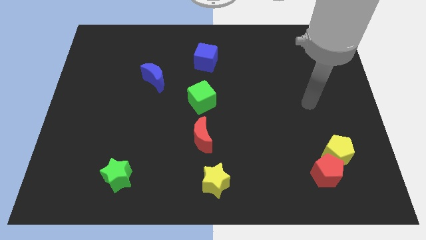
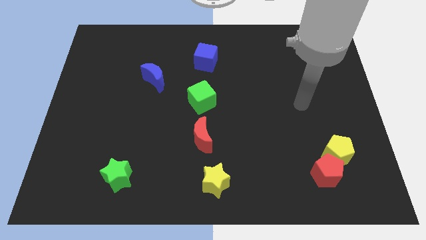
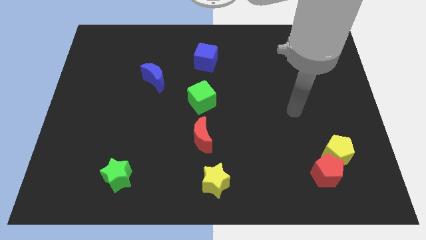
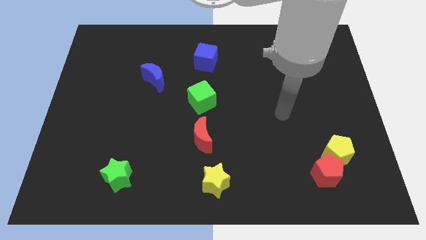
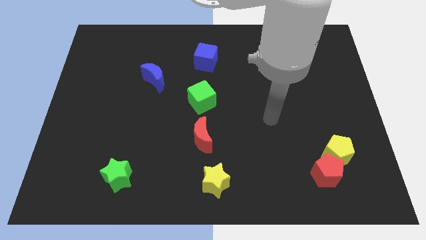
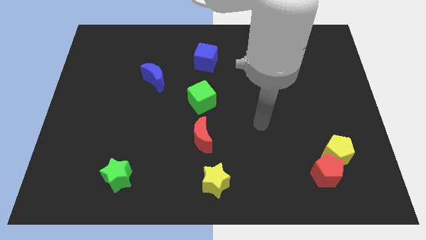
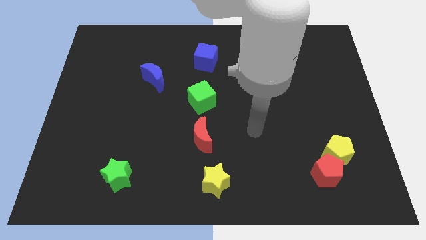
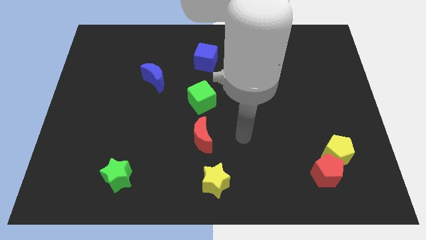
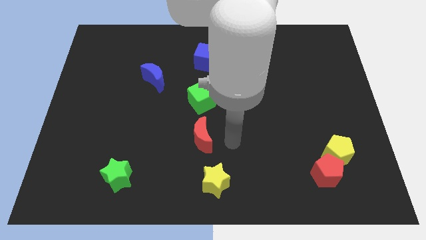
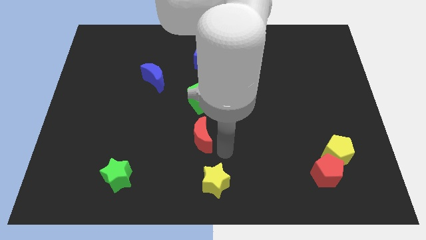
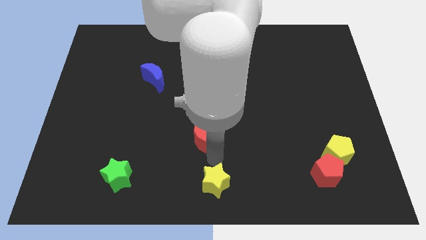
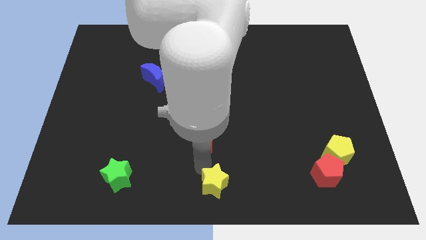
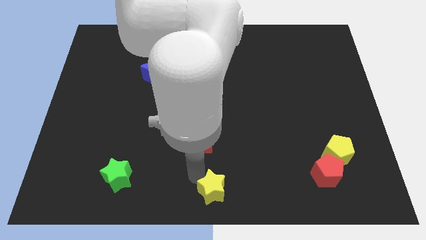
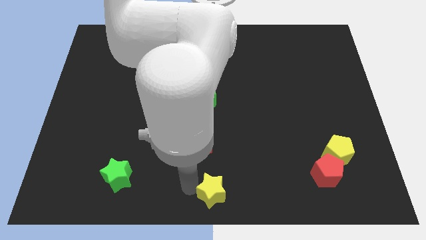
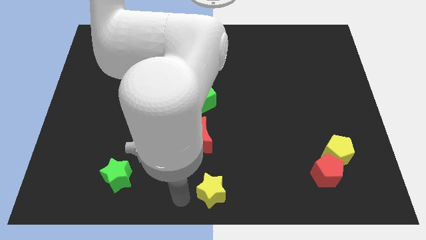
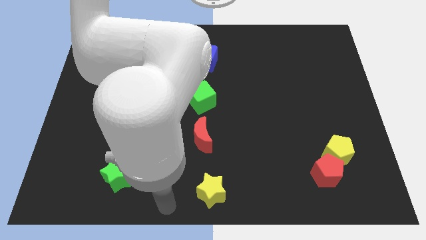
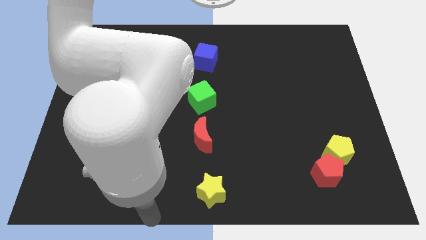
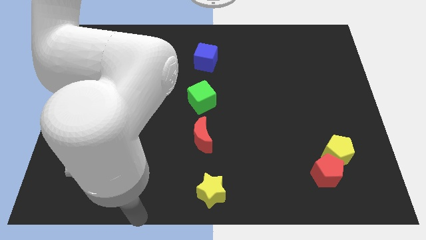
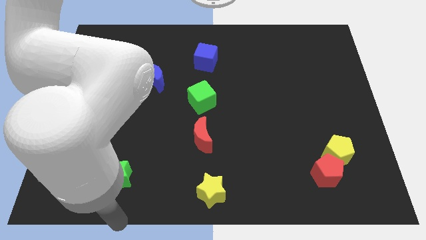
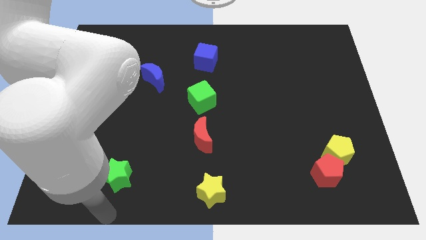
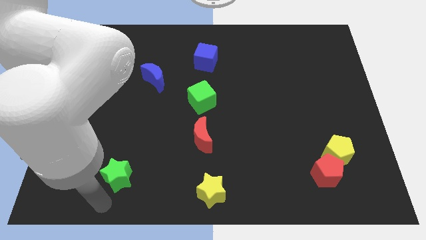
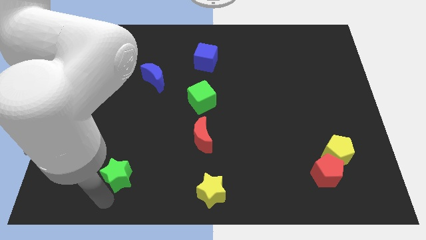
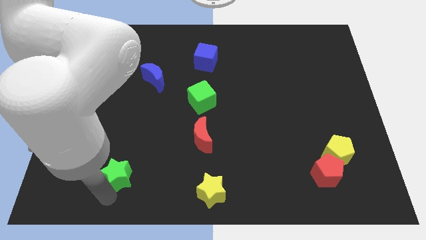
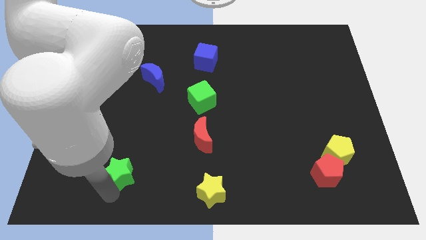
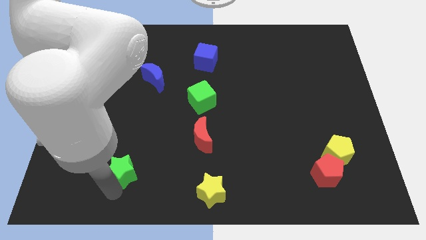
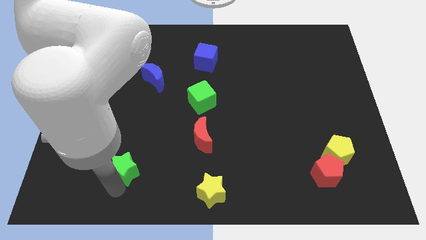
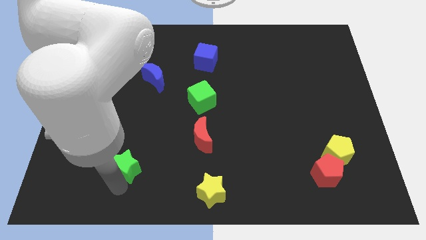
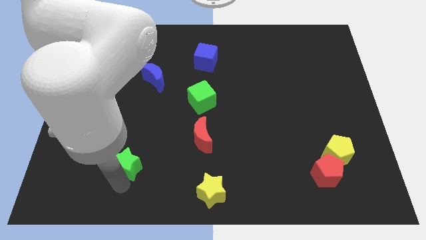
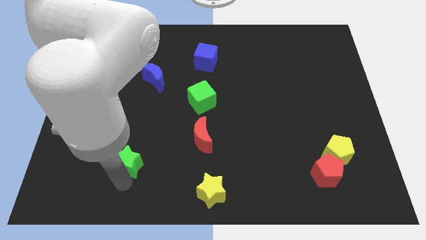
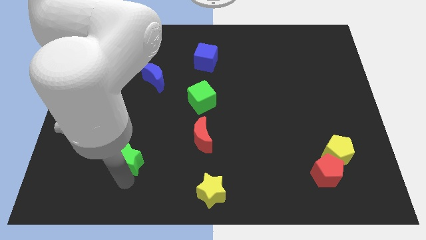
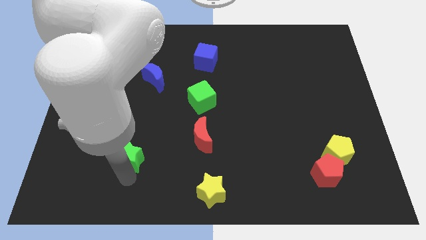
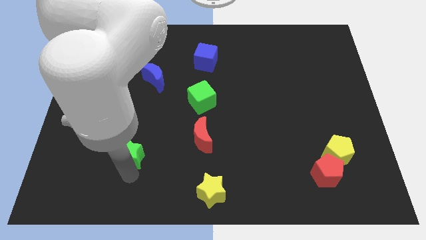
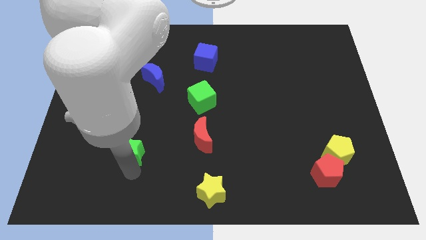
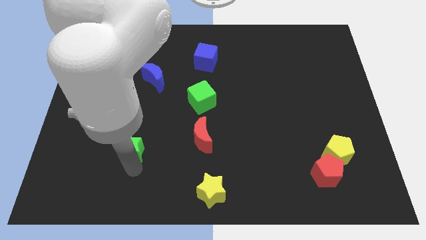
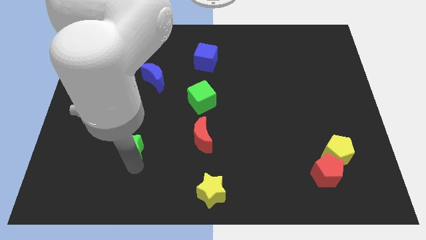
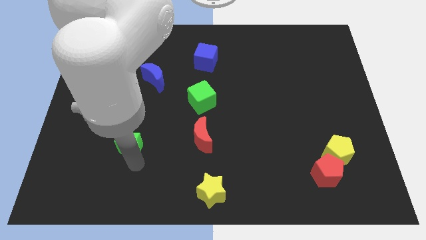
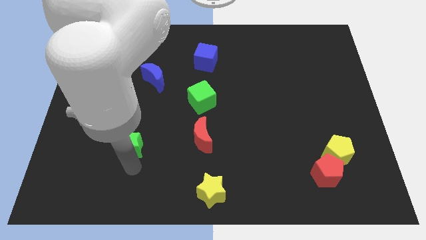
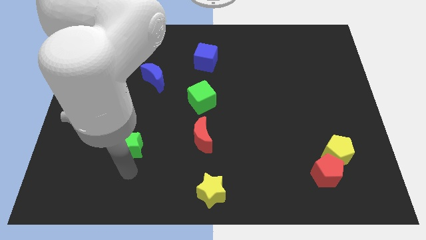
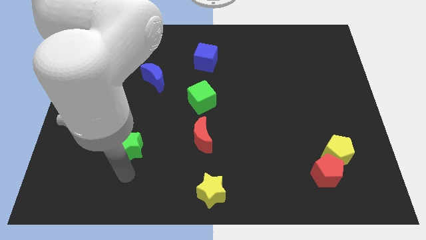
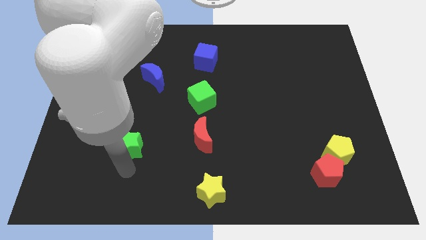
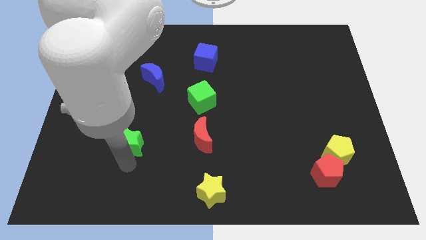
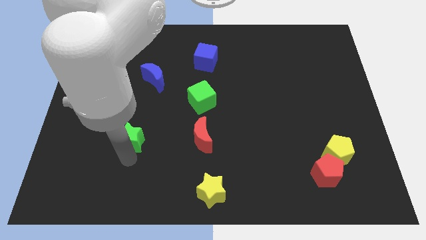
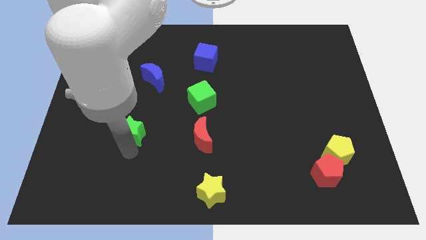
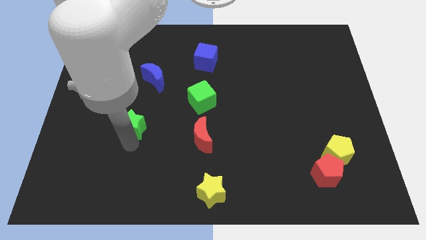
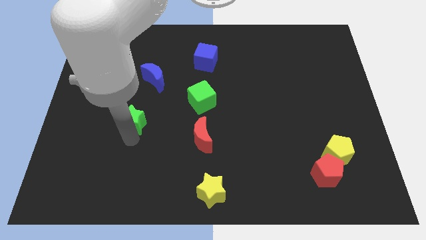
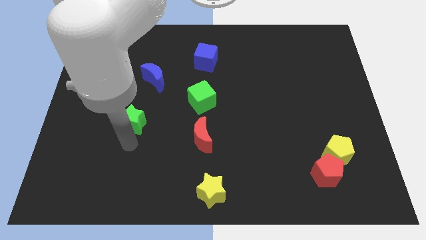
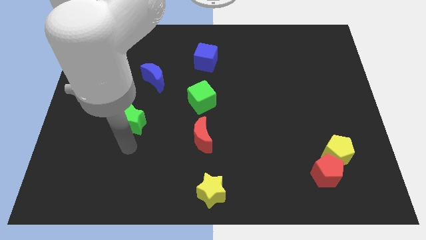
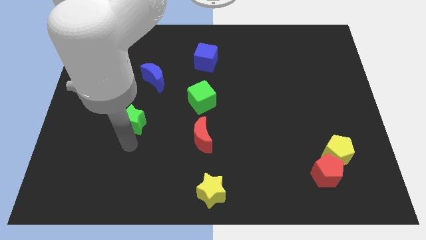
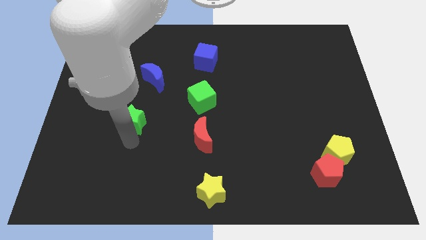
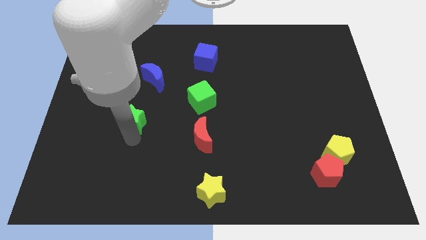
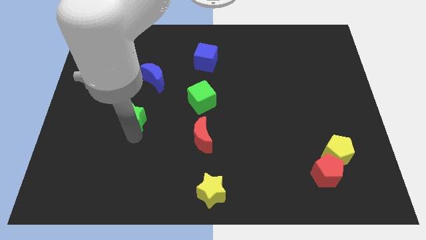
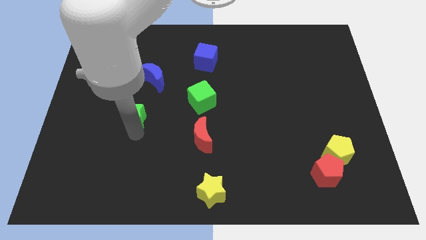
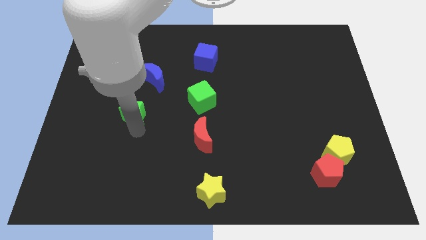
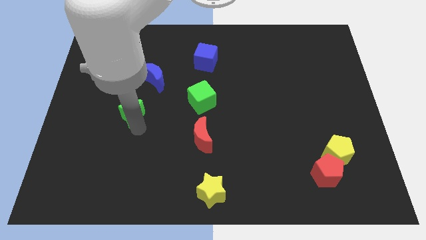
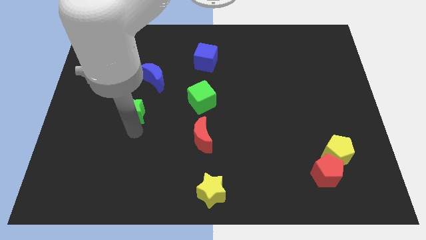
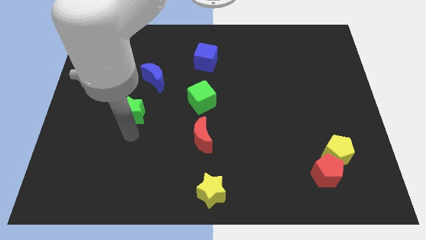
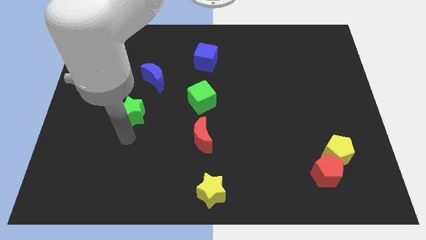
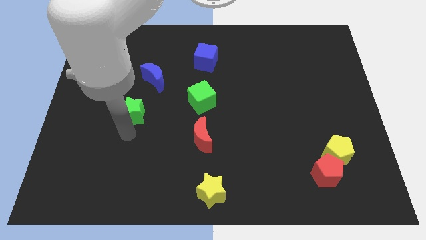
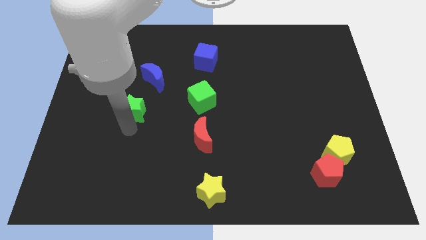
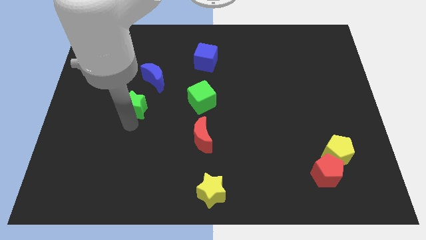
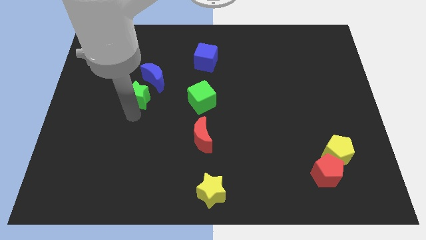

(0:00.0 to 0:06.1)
push the green star up

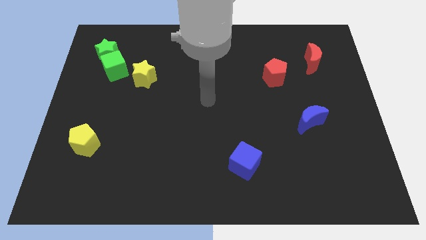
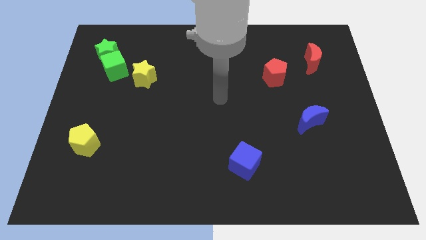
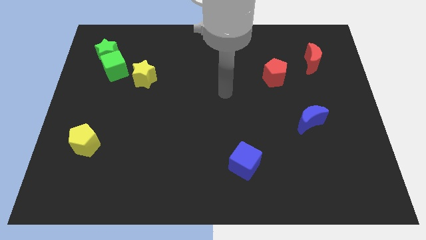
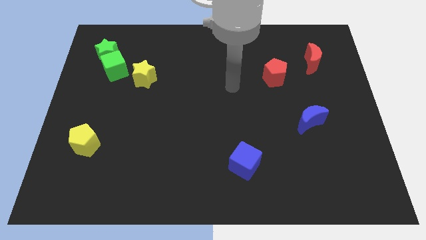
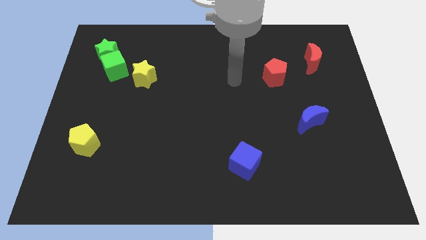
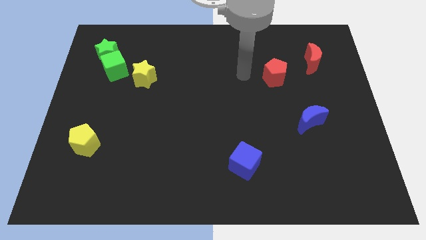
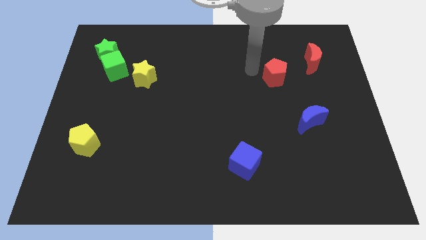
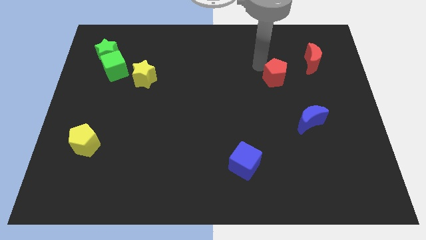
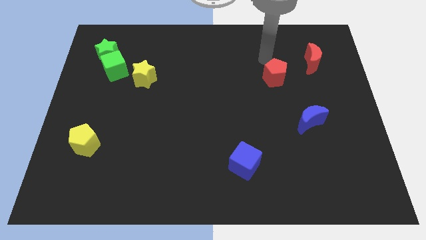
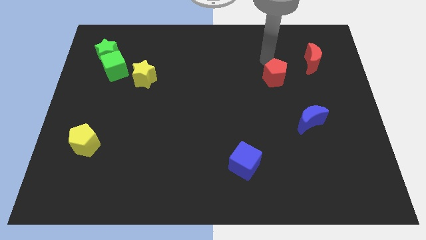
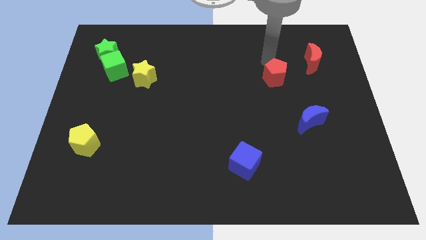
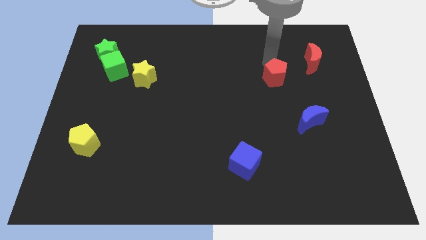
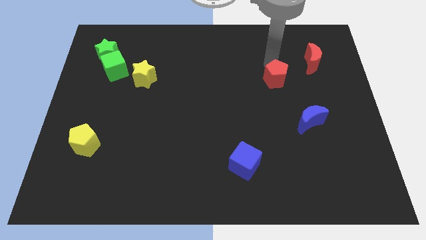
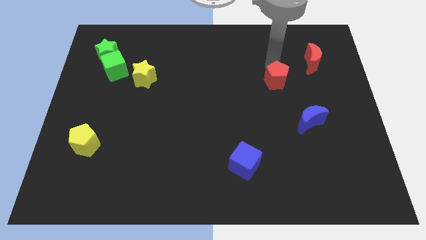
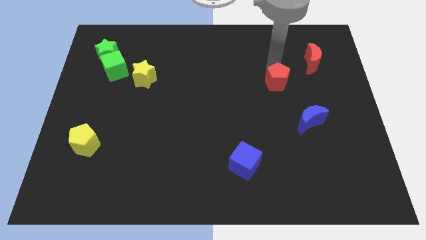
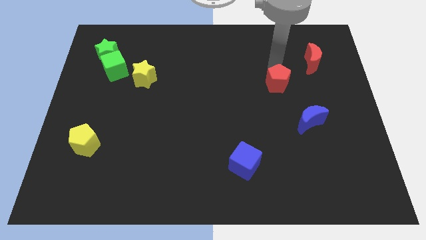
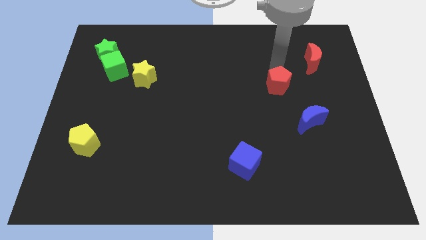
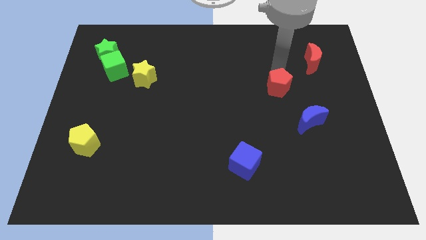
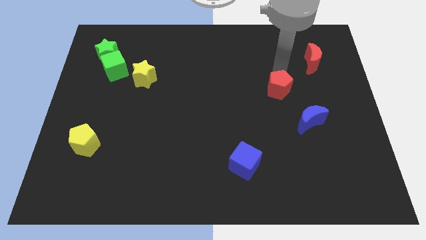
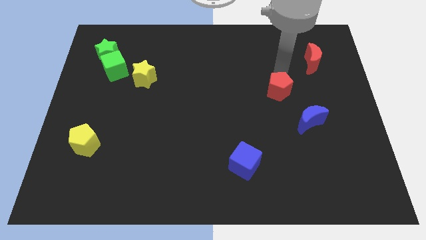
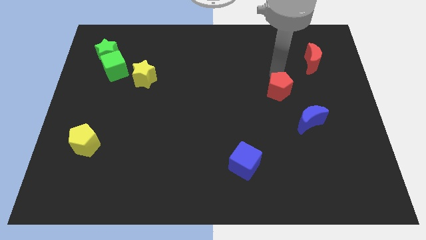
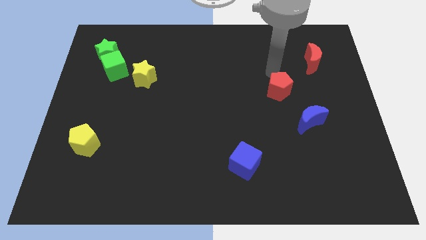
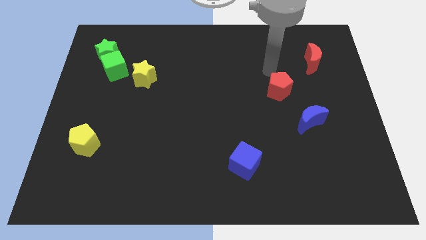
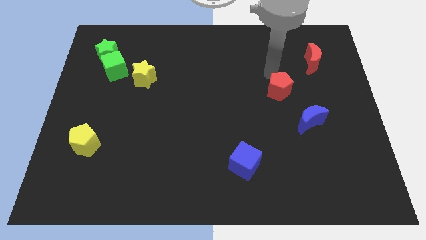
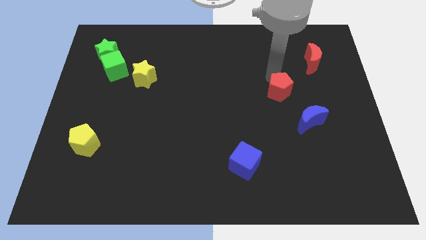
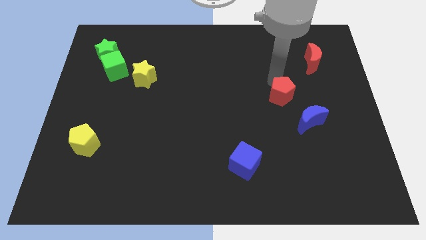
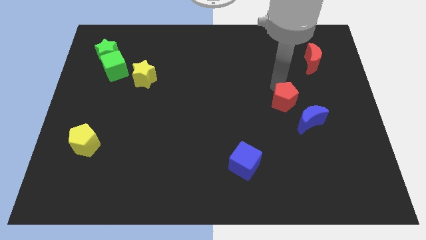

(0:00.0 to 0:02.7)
slide the red pentagon somewhat down
